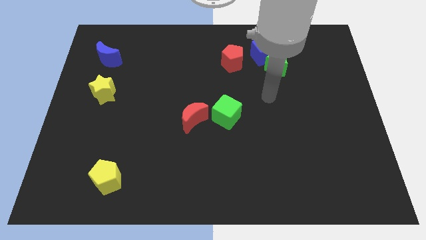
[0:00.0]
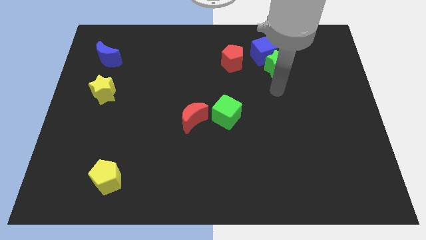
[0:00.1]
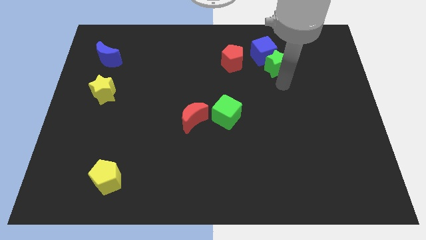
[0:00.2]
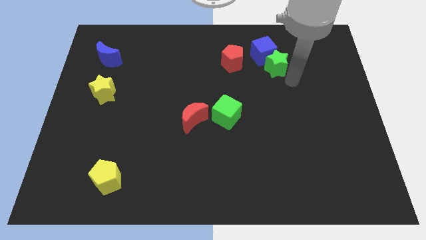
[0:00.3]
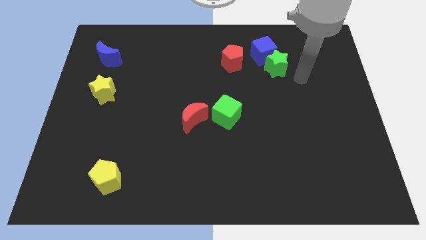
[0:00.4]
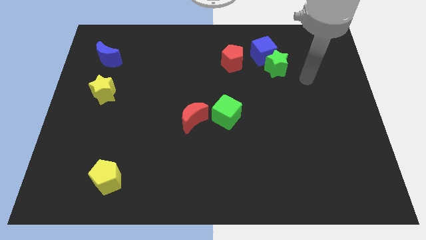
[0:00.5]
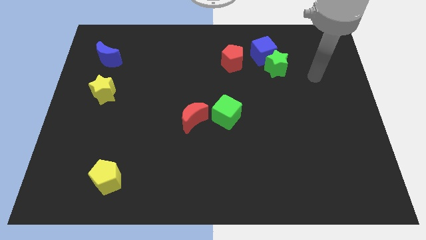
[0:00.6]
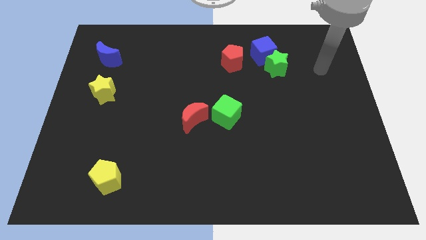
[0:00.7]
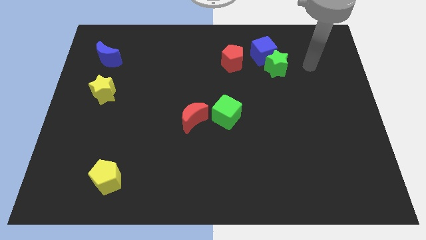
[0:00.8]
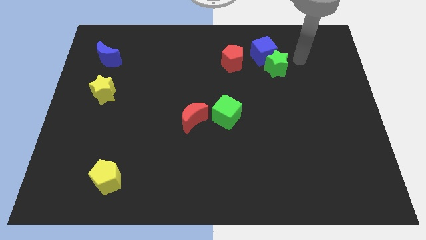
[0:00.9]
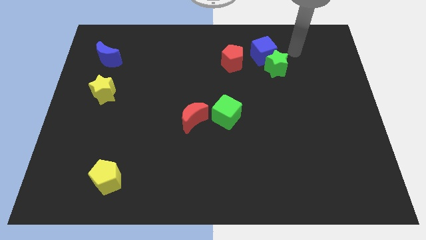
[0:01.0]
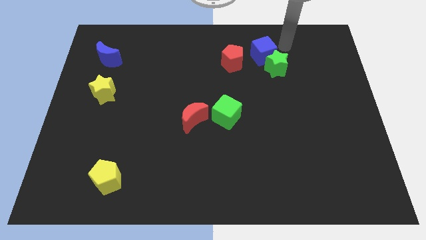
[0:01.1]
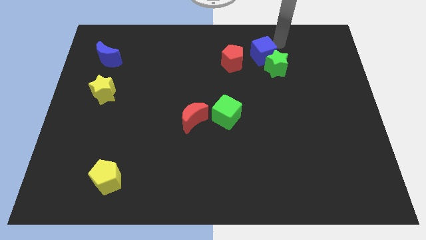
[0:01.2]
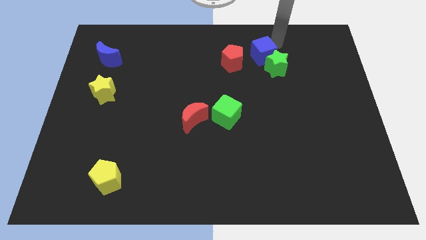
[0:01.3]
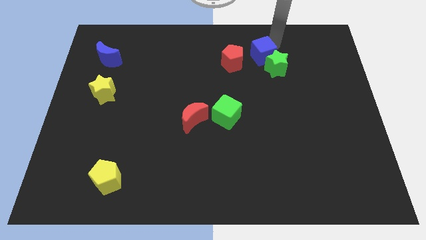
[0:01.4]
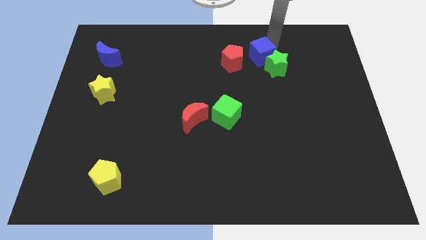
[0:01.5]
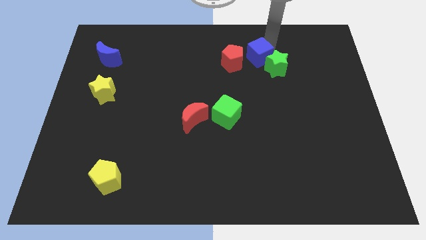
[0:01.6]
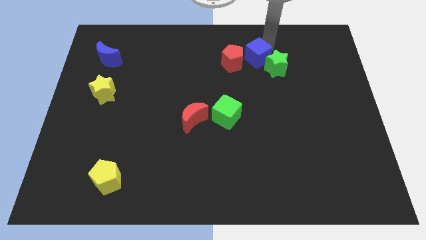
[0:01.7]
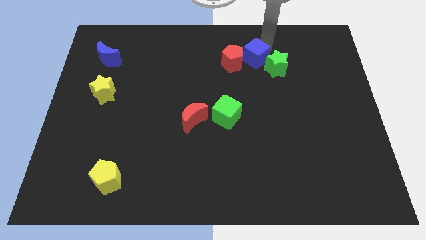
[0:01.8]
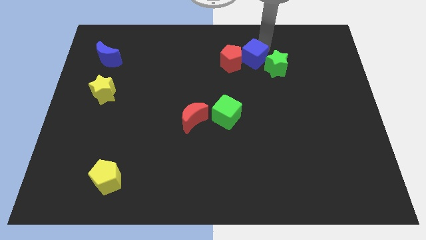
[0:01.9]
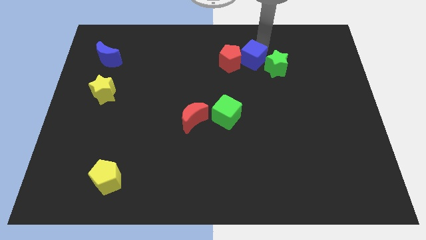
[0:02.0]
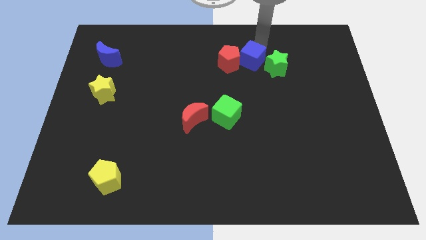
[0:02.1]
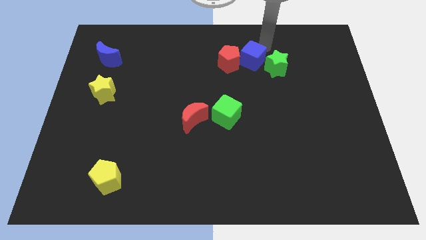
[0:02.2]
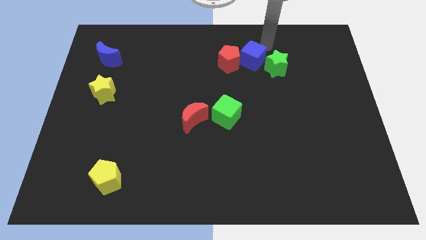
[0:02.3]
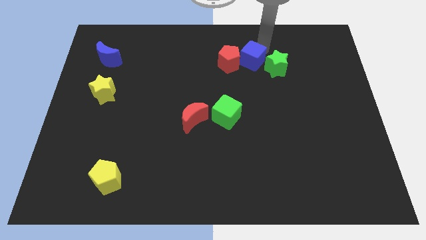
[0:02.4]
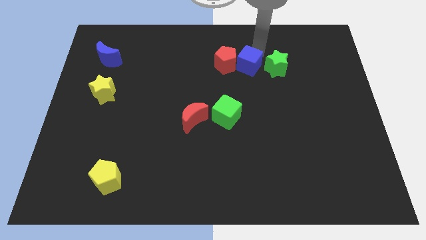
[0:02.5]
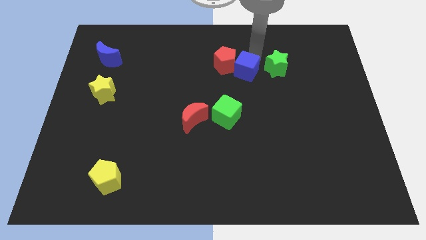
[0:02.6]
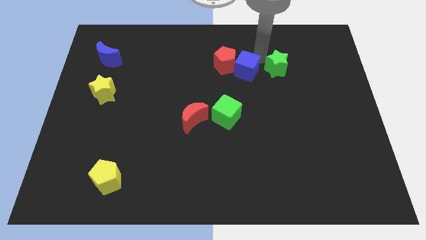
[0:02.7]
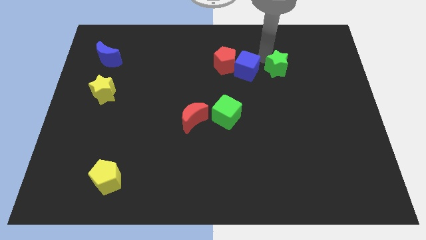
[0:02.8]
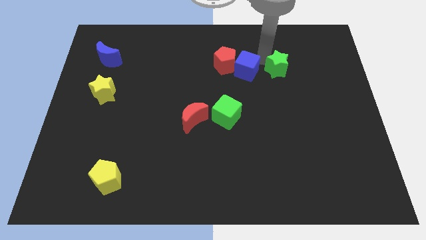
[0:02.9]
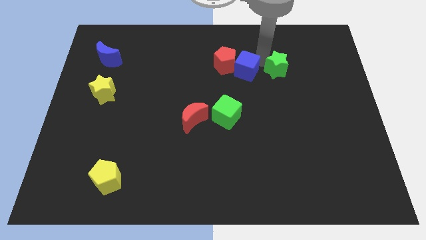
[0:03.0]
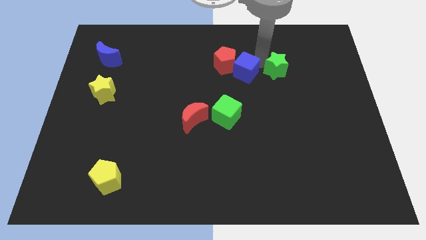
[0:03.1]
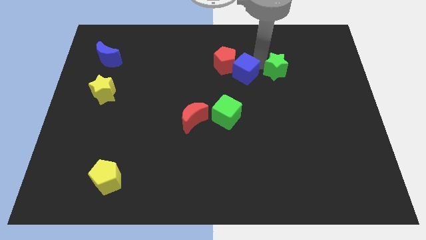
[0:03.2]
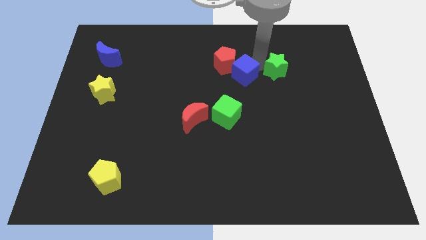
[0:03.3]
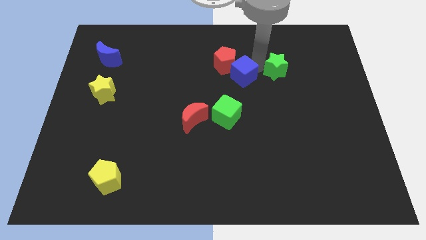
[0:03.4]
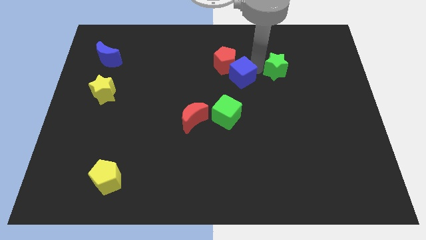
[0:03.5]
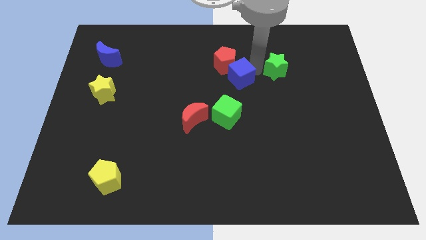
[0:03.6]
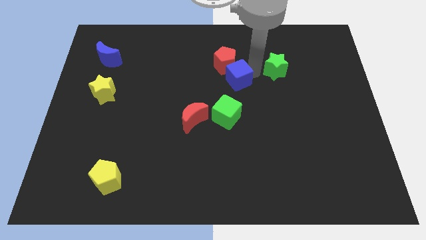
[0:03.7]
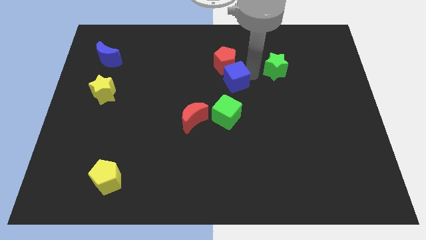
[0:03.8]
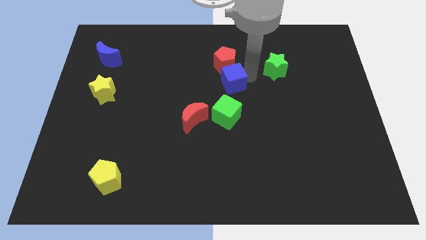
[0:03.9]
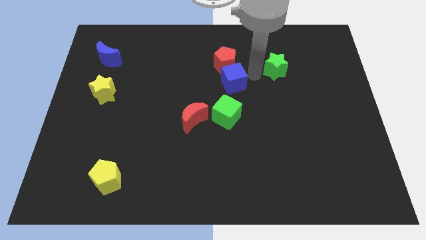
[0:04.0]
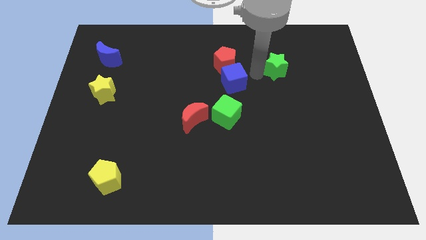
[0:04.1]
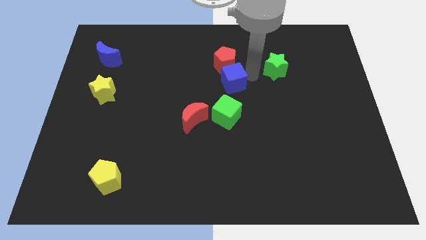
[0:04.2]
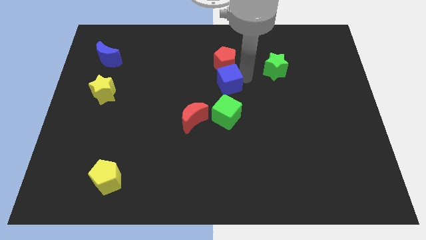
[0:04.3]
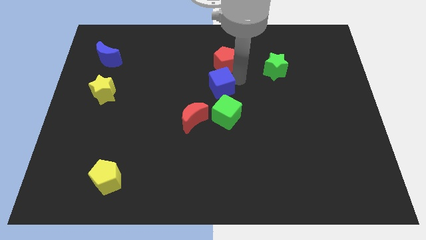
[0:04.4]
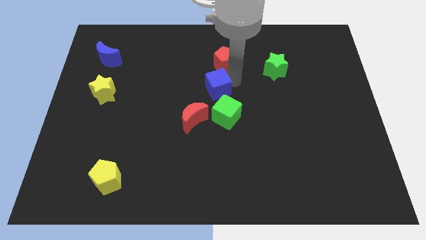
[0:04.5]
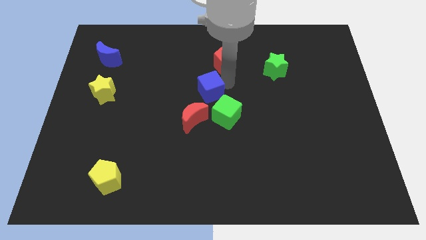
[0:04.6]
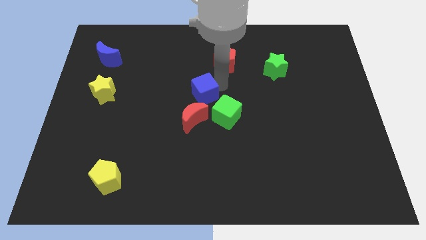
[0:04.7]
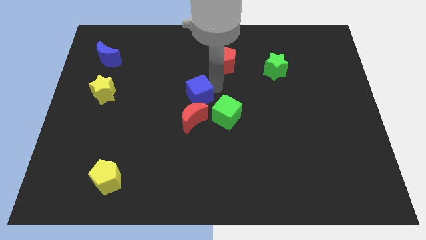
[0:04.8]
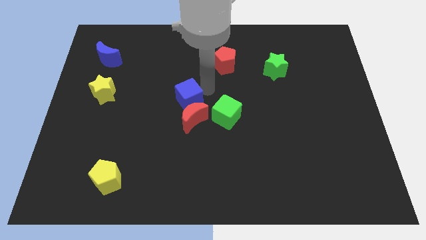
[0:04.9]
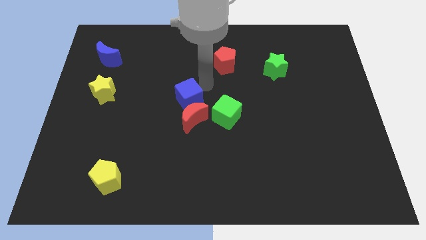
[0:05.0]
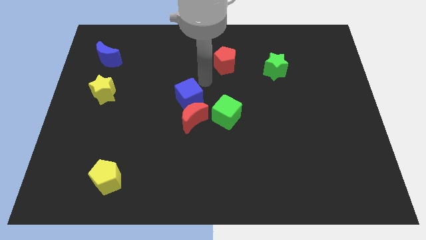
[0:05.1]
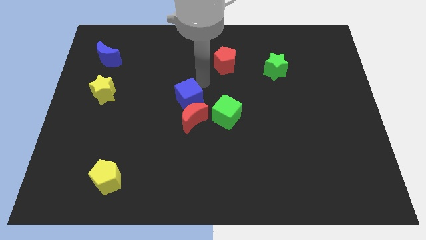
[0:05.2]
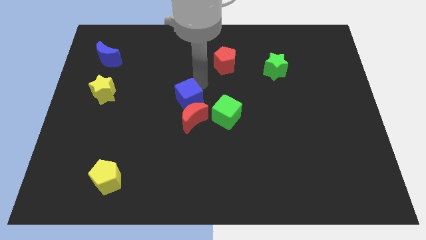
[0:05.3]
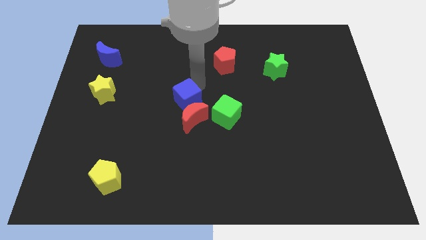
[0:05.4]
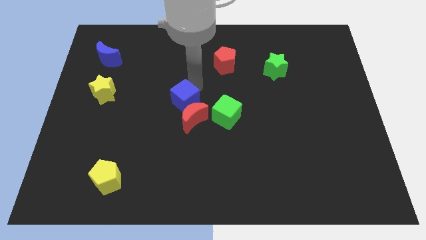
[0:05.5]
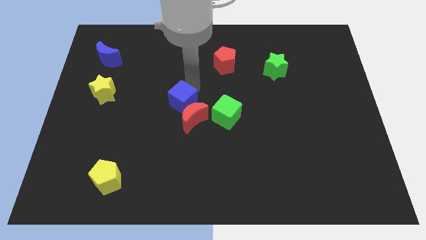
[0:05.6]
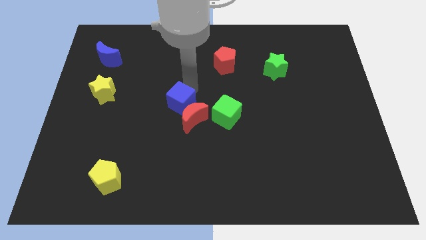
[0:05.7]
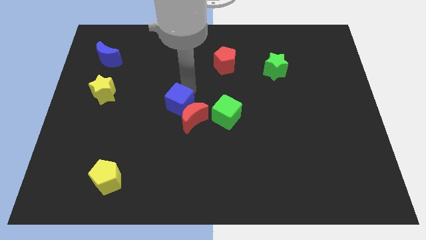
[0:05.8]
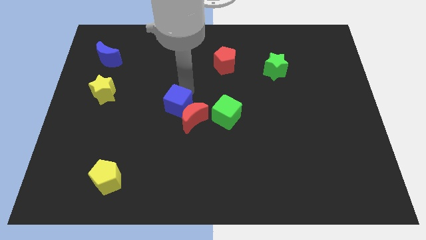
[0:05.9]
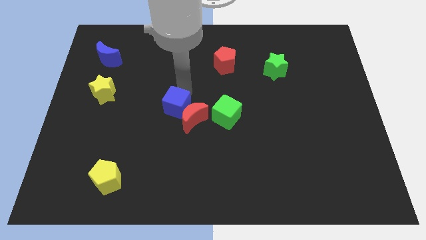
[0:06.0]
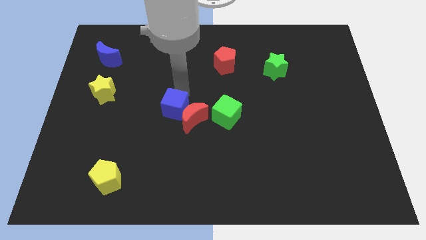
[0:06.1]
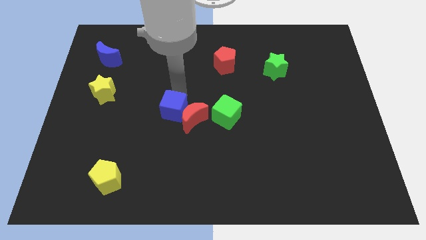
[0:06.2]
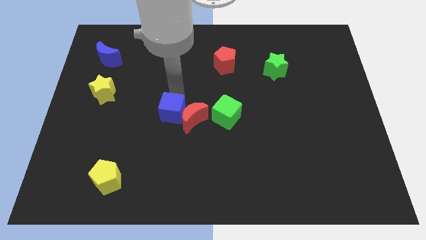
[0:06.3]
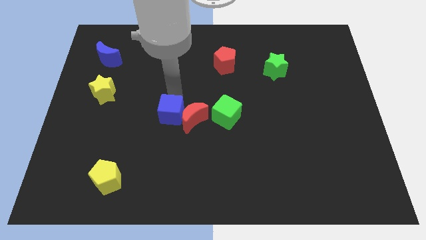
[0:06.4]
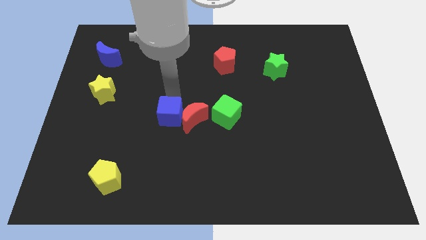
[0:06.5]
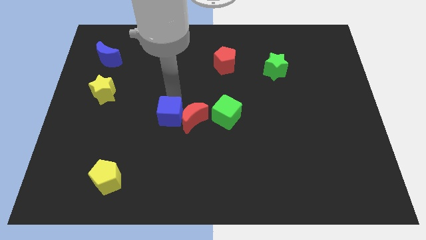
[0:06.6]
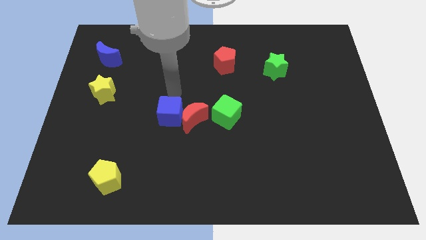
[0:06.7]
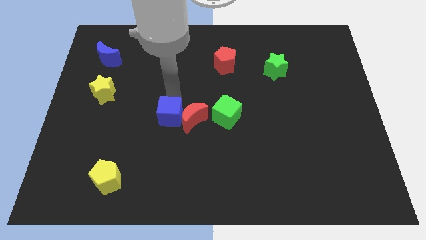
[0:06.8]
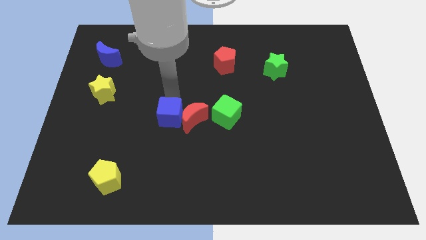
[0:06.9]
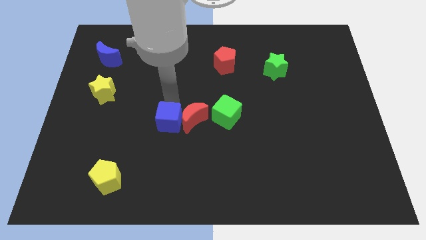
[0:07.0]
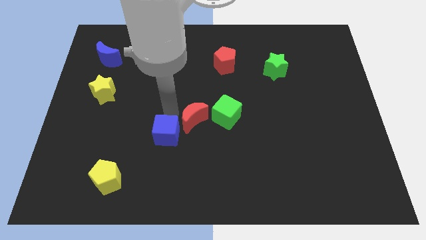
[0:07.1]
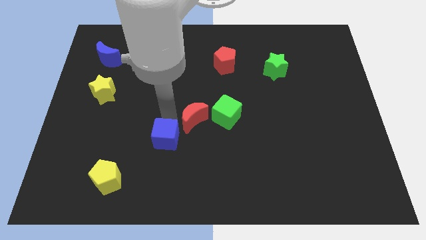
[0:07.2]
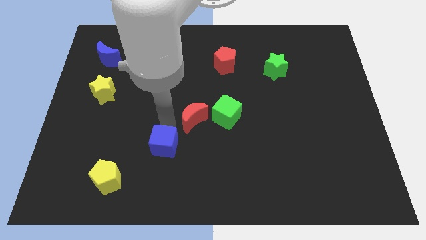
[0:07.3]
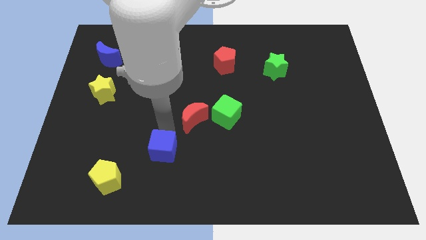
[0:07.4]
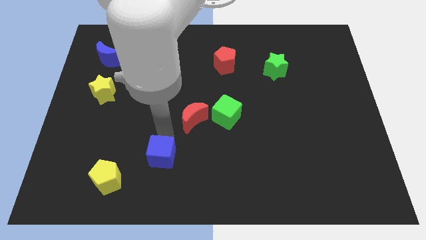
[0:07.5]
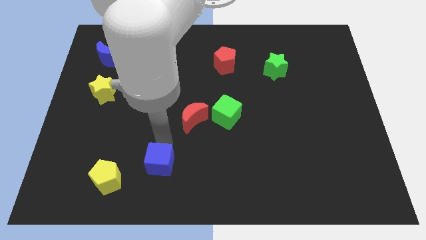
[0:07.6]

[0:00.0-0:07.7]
move the blue cube to the right of the yellow pentagon
